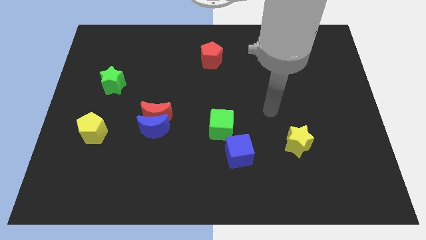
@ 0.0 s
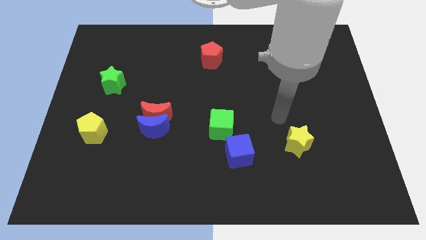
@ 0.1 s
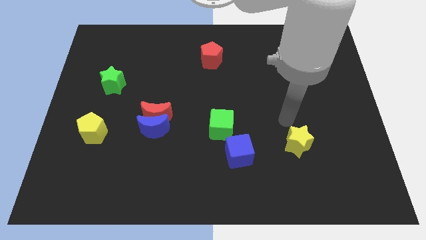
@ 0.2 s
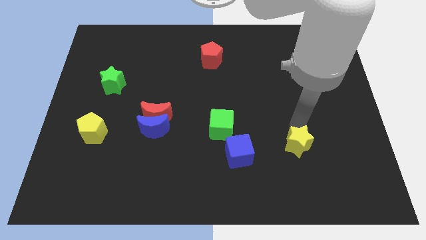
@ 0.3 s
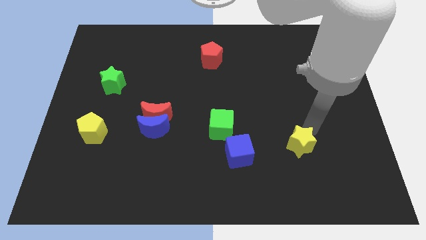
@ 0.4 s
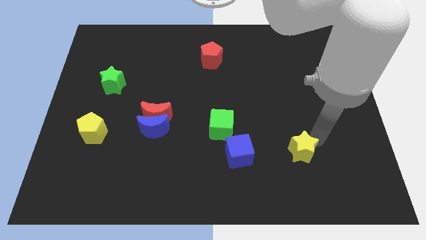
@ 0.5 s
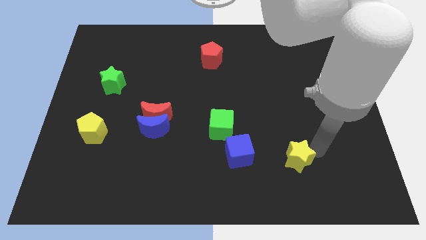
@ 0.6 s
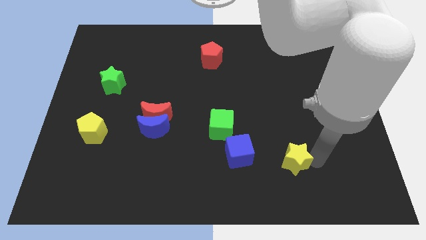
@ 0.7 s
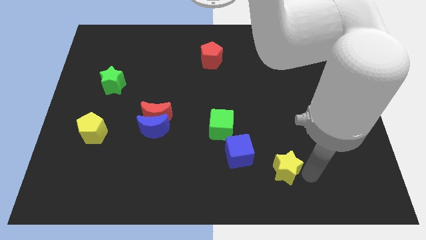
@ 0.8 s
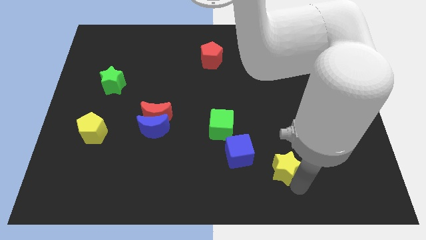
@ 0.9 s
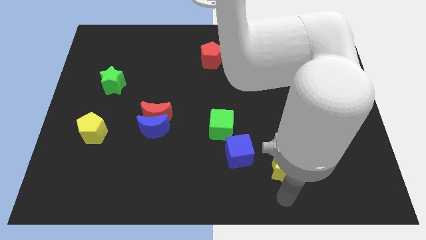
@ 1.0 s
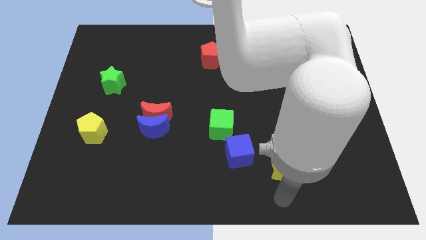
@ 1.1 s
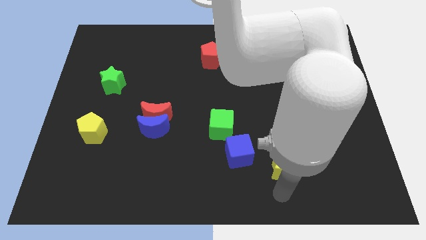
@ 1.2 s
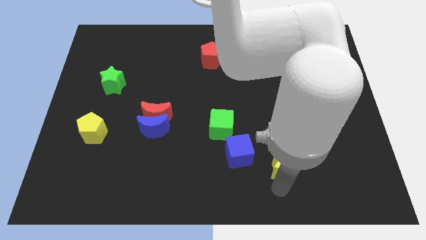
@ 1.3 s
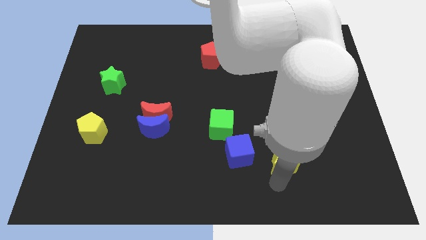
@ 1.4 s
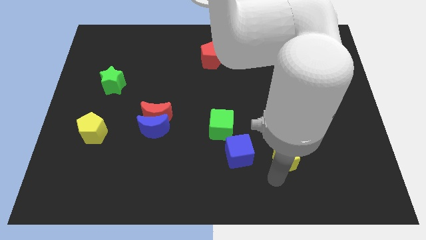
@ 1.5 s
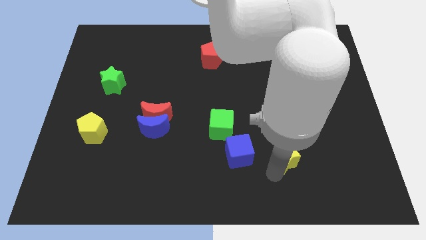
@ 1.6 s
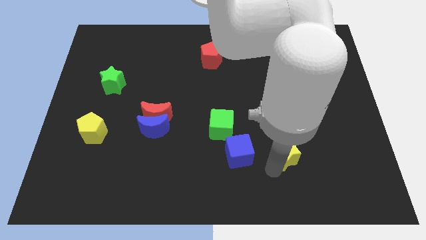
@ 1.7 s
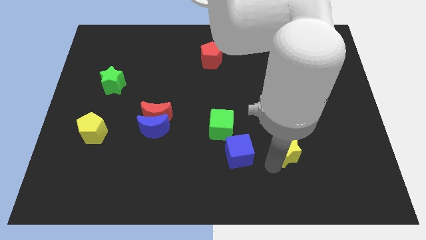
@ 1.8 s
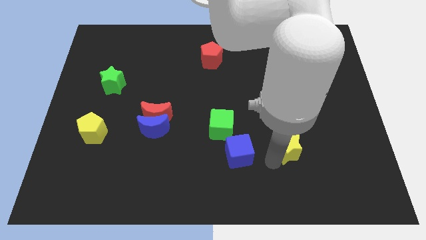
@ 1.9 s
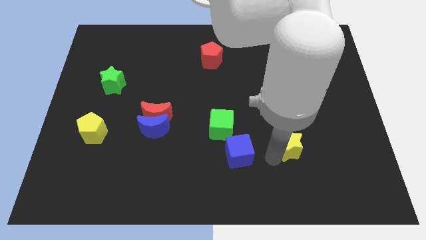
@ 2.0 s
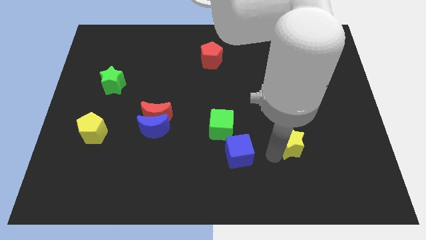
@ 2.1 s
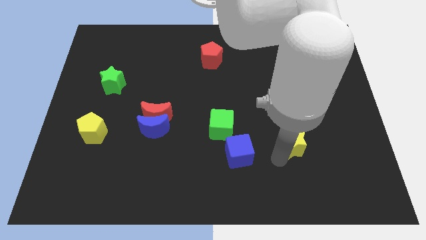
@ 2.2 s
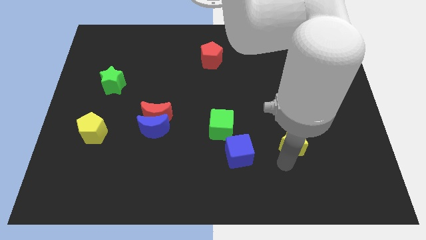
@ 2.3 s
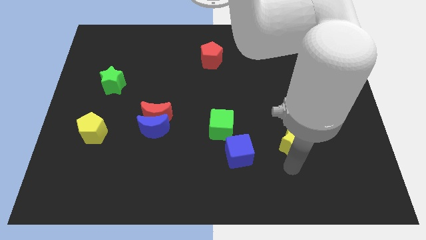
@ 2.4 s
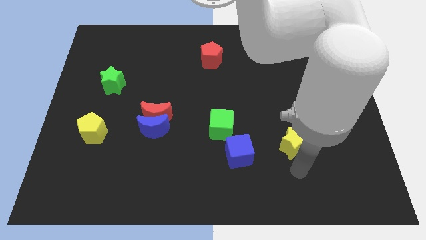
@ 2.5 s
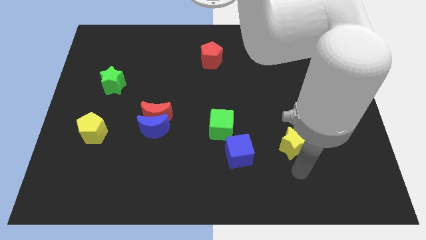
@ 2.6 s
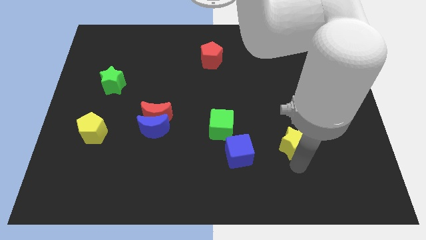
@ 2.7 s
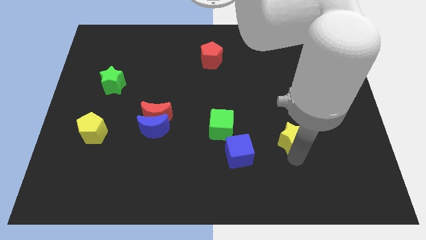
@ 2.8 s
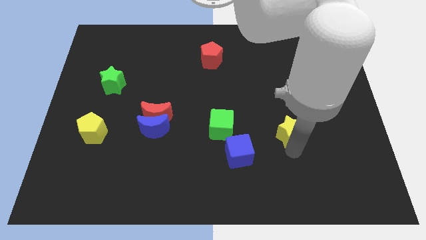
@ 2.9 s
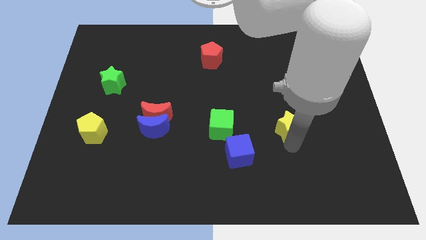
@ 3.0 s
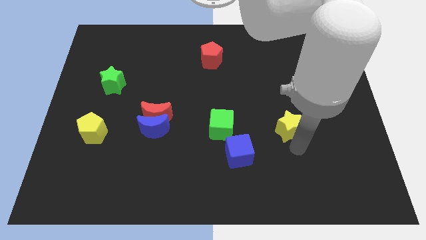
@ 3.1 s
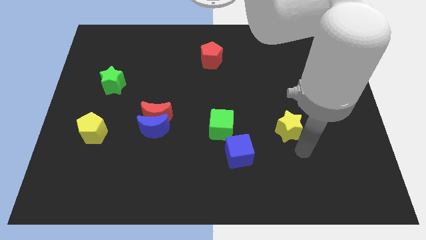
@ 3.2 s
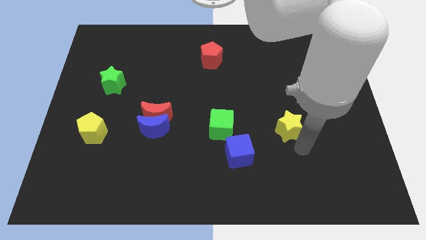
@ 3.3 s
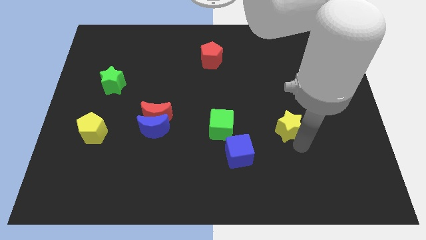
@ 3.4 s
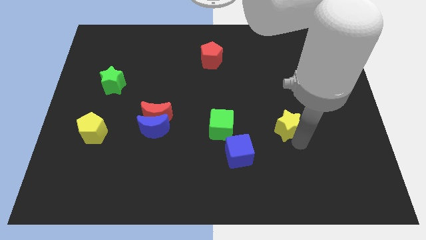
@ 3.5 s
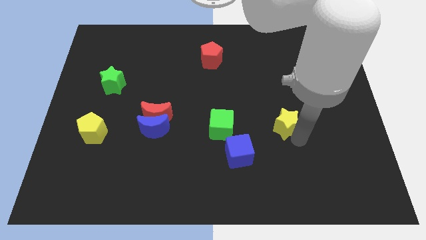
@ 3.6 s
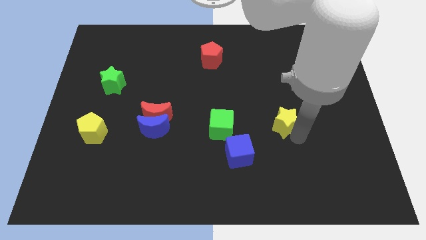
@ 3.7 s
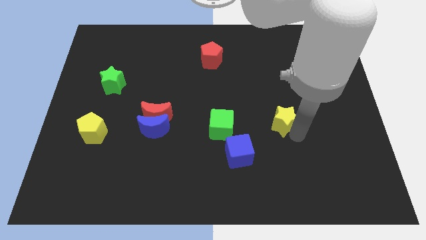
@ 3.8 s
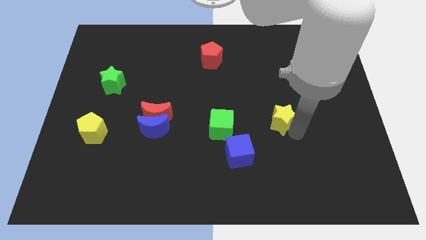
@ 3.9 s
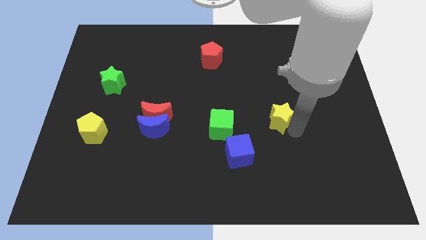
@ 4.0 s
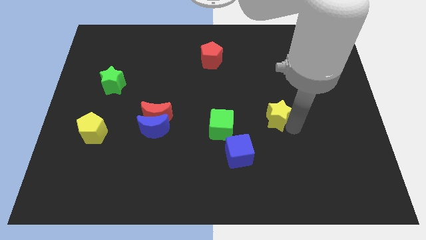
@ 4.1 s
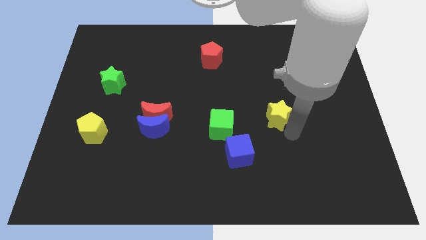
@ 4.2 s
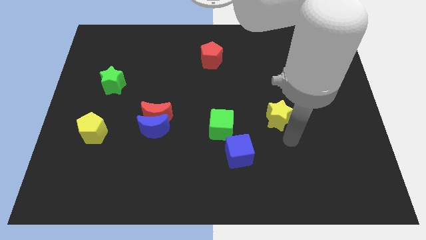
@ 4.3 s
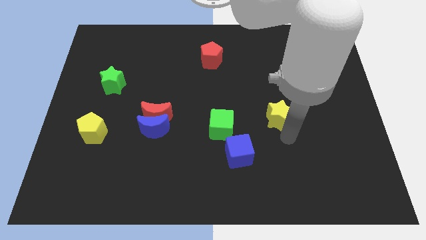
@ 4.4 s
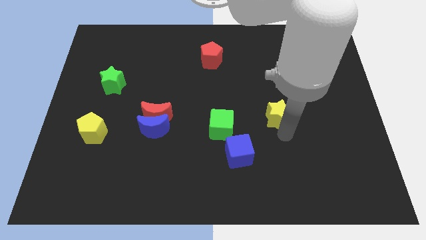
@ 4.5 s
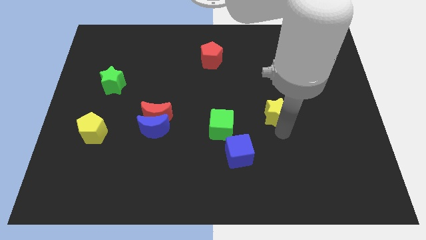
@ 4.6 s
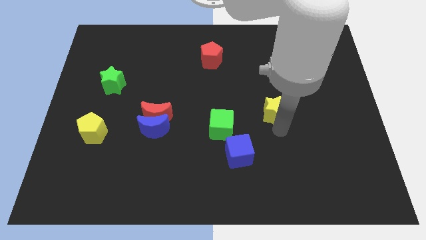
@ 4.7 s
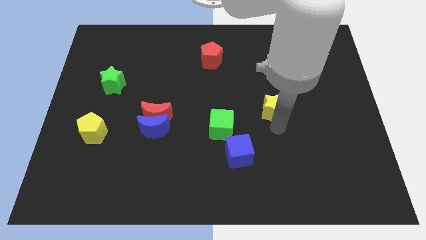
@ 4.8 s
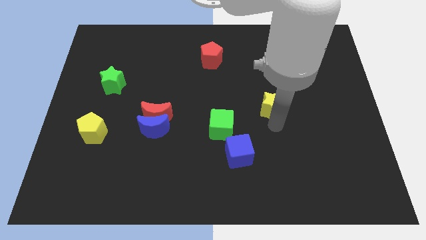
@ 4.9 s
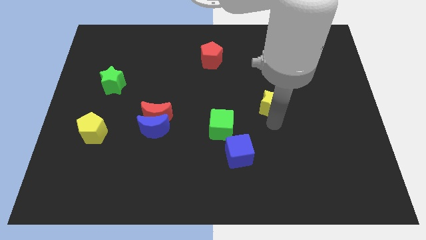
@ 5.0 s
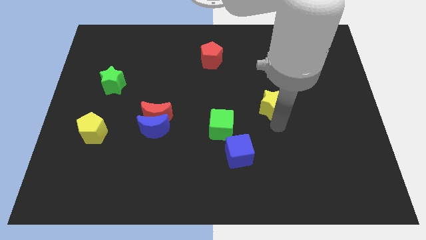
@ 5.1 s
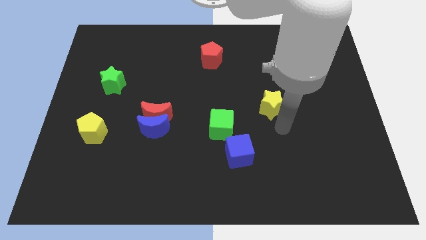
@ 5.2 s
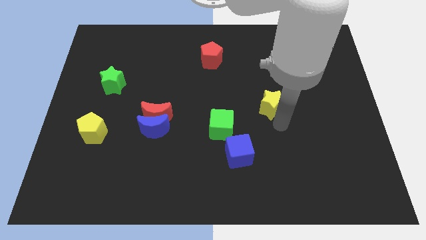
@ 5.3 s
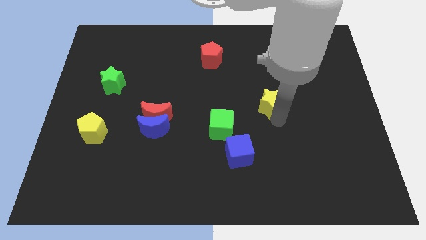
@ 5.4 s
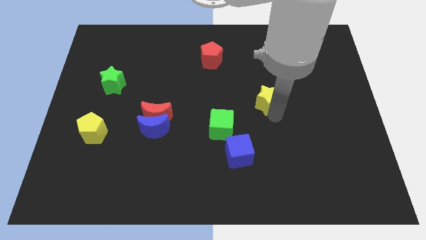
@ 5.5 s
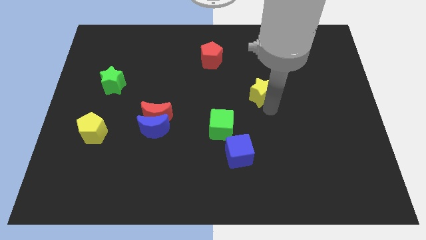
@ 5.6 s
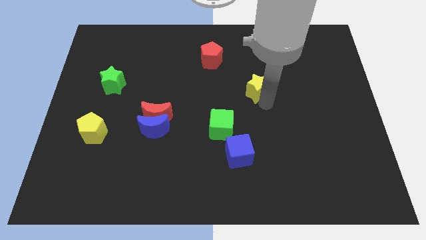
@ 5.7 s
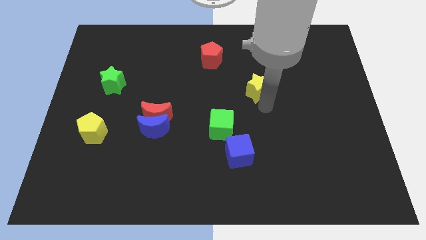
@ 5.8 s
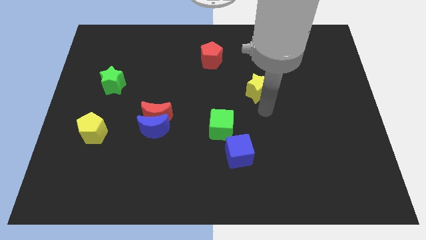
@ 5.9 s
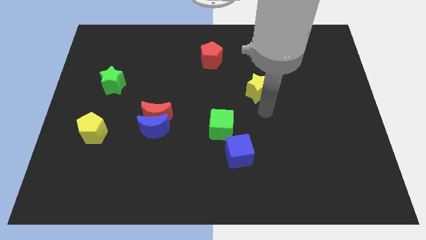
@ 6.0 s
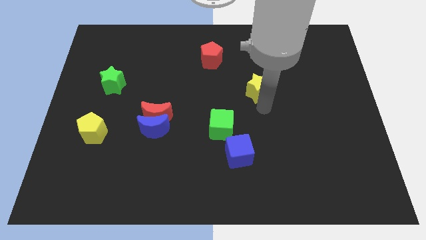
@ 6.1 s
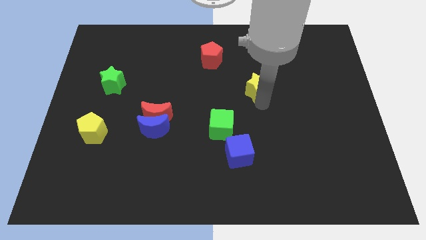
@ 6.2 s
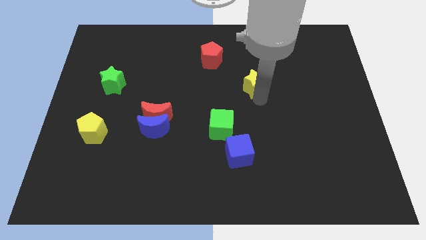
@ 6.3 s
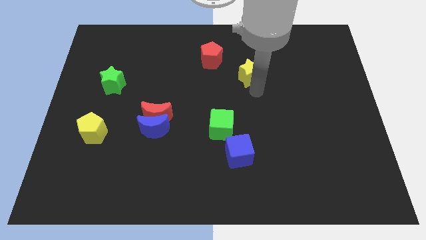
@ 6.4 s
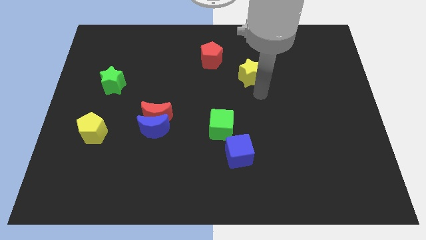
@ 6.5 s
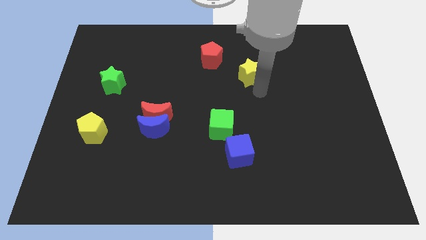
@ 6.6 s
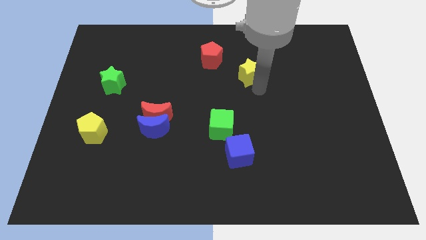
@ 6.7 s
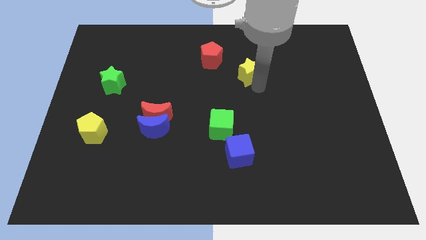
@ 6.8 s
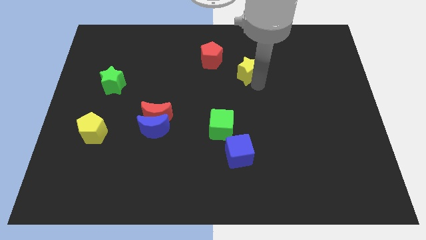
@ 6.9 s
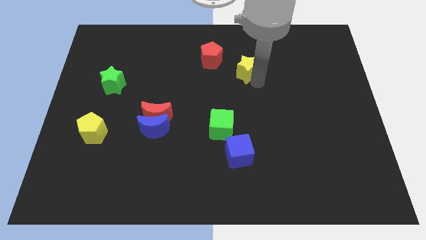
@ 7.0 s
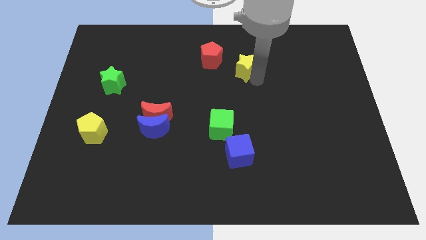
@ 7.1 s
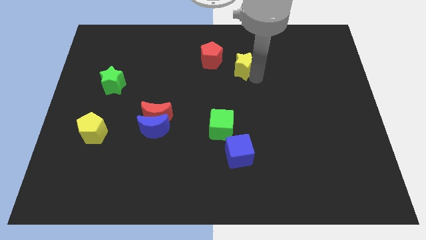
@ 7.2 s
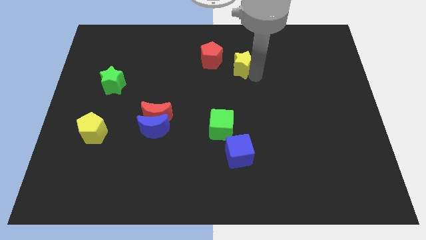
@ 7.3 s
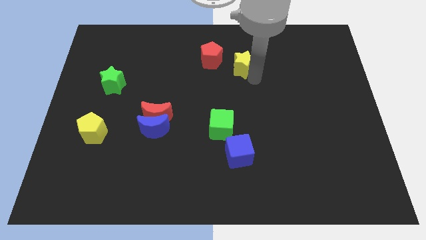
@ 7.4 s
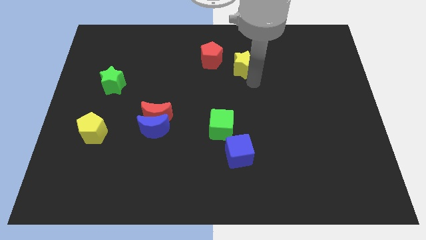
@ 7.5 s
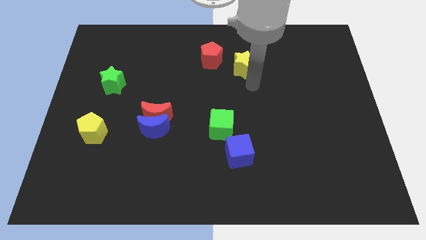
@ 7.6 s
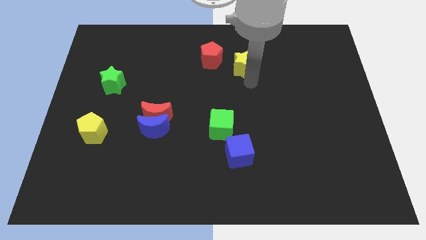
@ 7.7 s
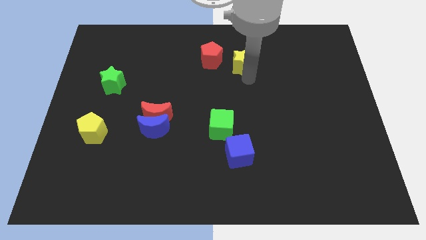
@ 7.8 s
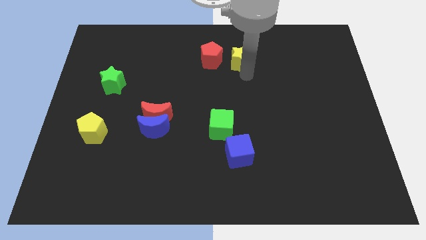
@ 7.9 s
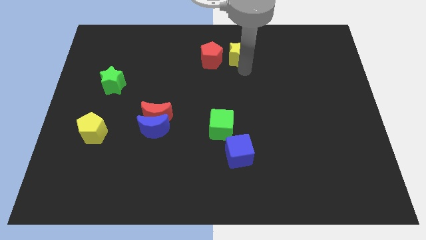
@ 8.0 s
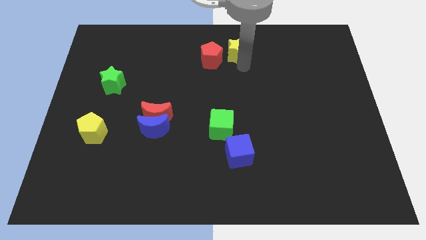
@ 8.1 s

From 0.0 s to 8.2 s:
put the yellow star to the towards your base
